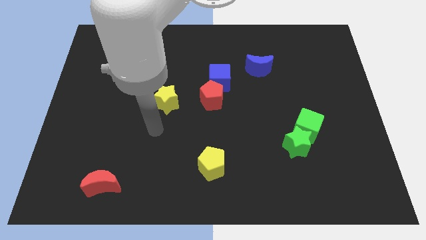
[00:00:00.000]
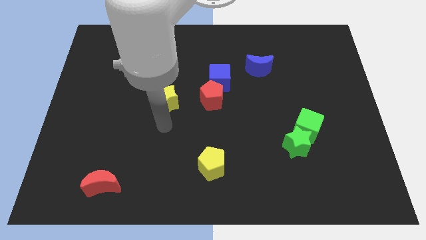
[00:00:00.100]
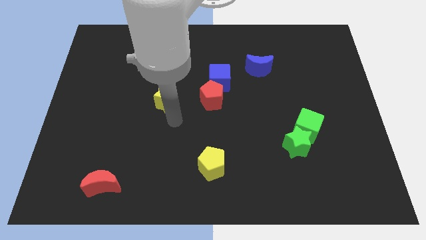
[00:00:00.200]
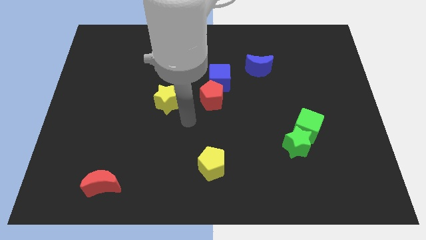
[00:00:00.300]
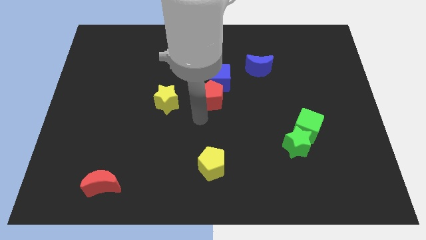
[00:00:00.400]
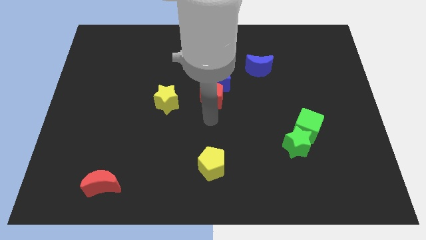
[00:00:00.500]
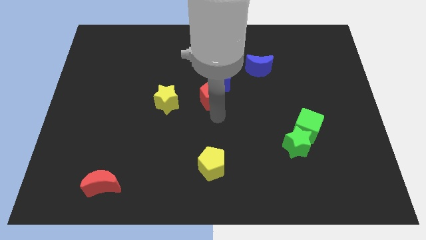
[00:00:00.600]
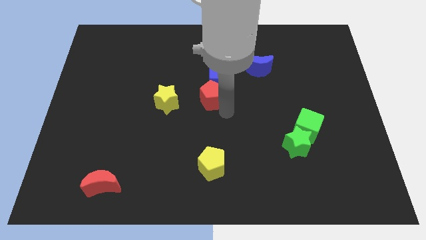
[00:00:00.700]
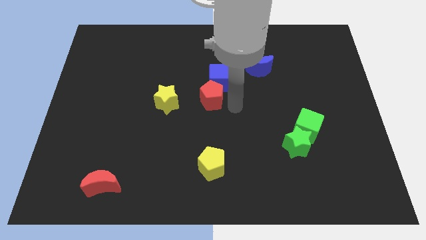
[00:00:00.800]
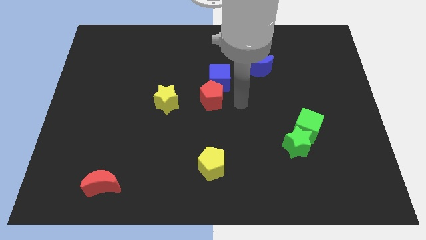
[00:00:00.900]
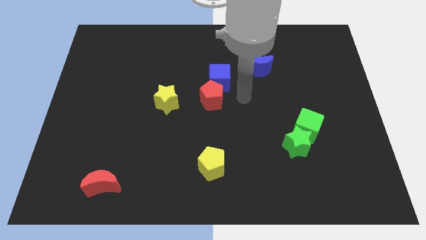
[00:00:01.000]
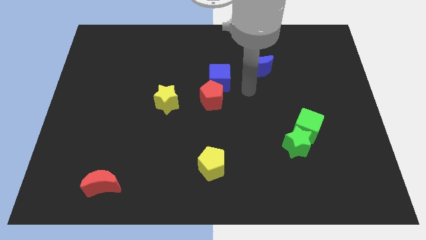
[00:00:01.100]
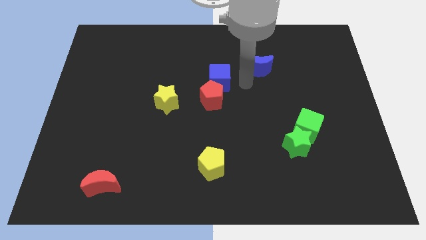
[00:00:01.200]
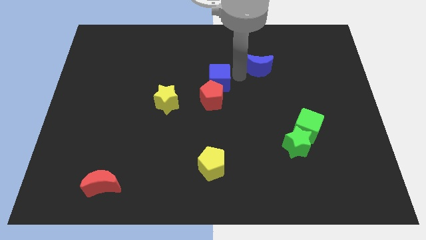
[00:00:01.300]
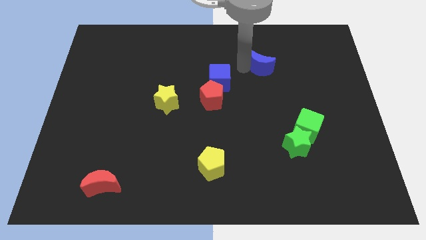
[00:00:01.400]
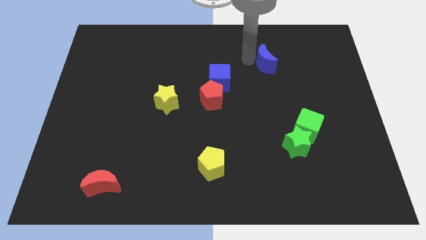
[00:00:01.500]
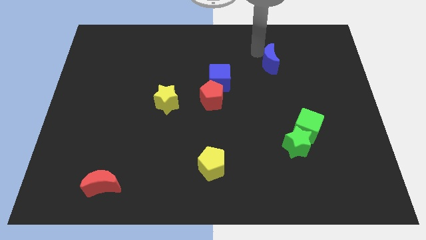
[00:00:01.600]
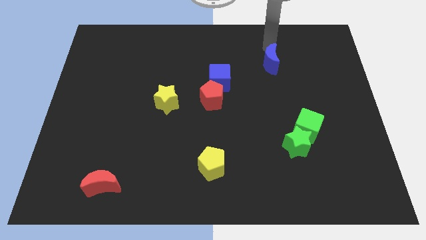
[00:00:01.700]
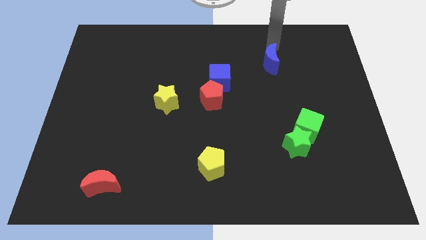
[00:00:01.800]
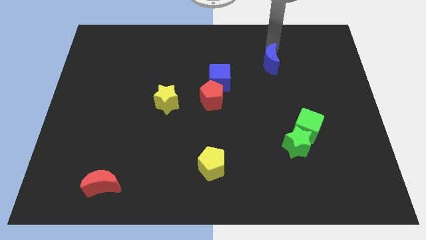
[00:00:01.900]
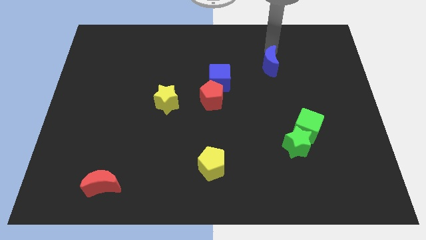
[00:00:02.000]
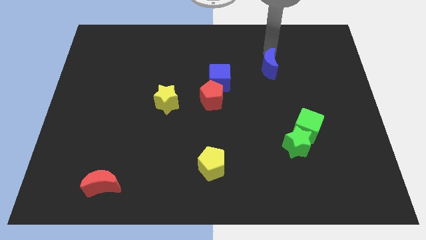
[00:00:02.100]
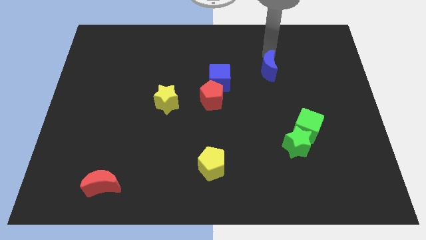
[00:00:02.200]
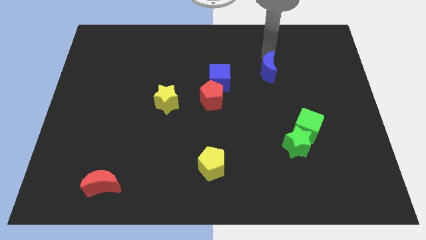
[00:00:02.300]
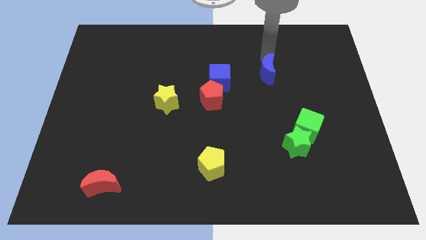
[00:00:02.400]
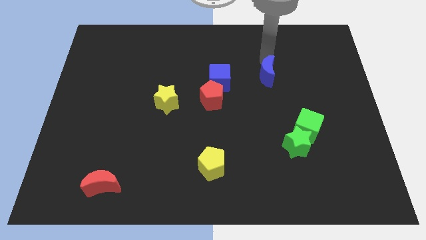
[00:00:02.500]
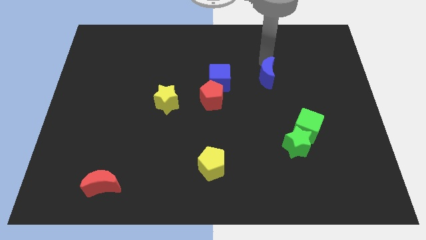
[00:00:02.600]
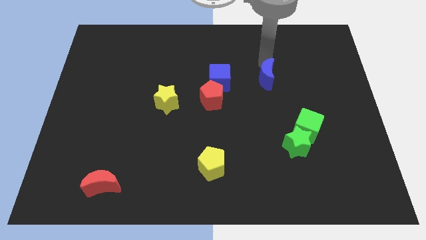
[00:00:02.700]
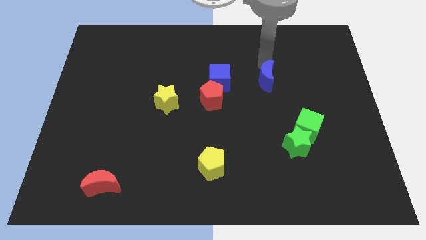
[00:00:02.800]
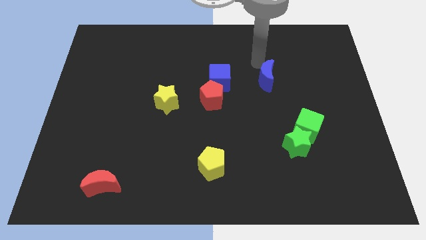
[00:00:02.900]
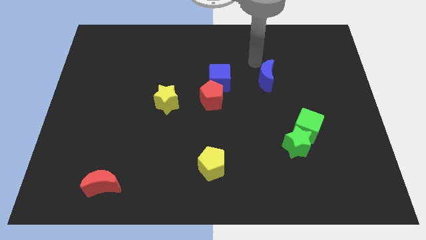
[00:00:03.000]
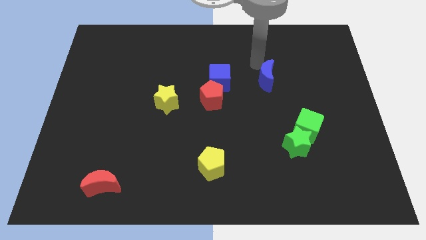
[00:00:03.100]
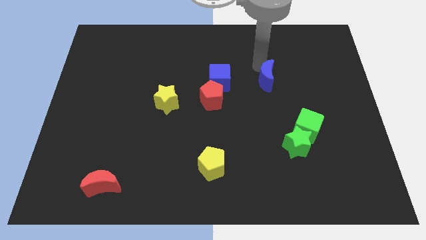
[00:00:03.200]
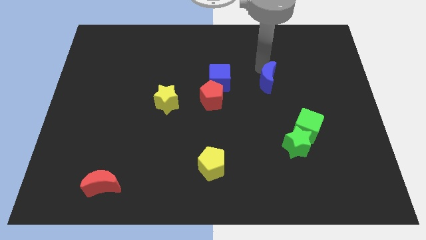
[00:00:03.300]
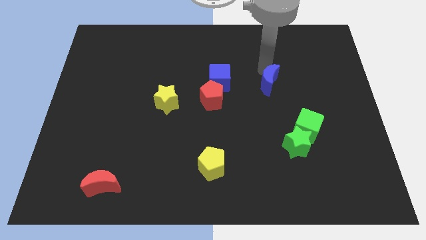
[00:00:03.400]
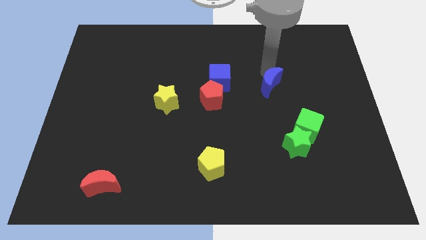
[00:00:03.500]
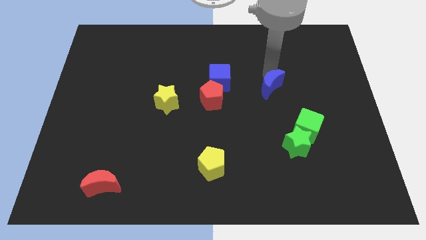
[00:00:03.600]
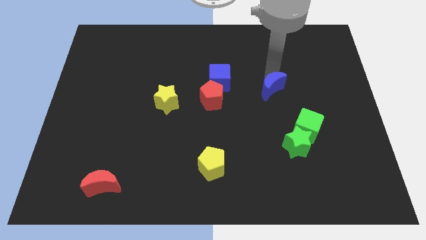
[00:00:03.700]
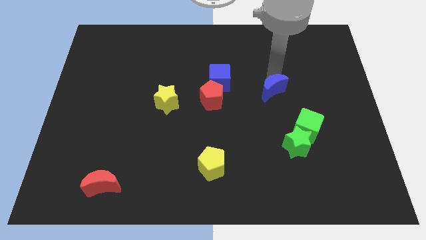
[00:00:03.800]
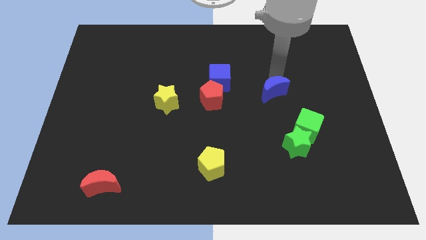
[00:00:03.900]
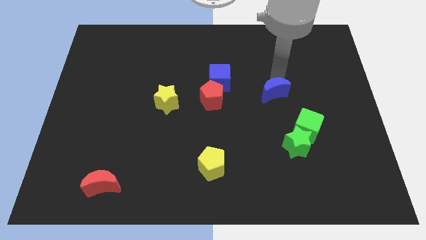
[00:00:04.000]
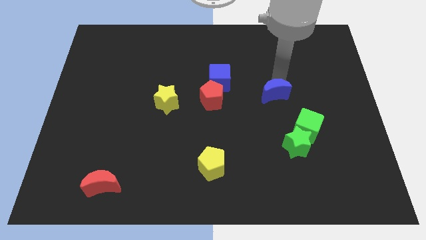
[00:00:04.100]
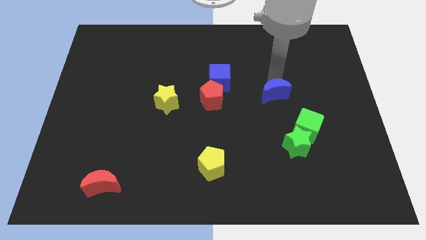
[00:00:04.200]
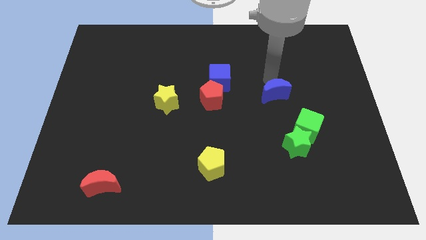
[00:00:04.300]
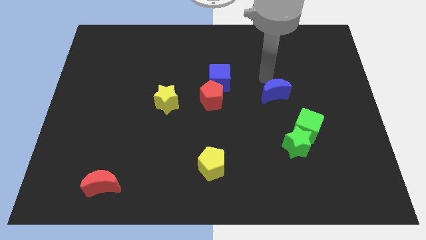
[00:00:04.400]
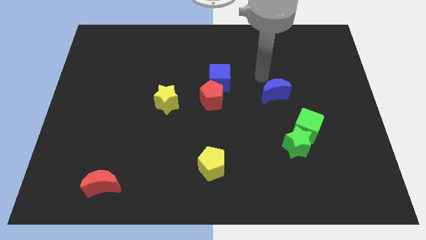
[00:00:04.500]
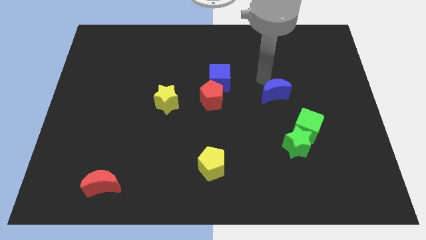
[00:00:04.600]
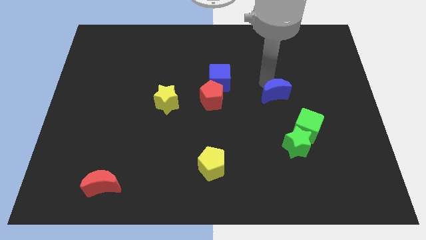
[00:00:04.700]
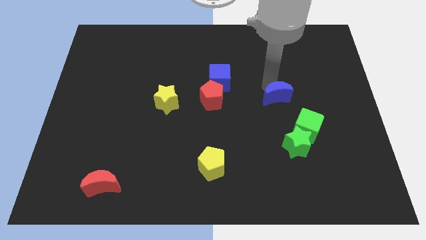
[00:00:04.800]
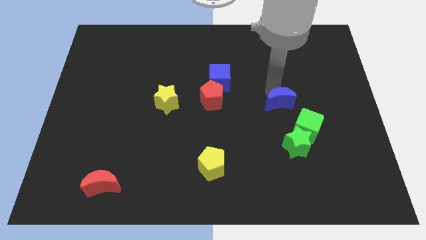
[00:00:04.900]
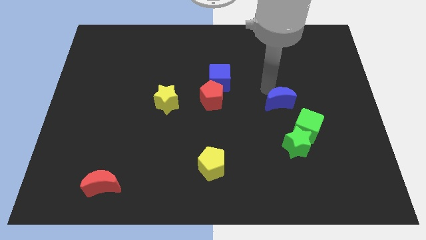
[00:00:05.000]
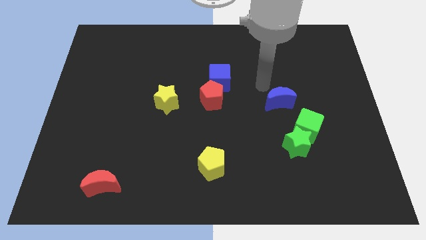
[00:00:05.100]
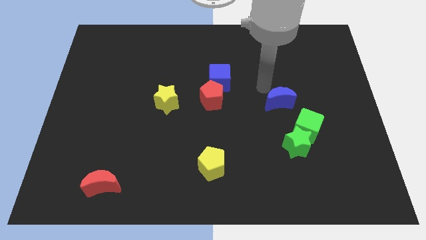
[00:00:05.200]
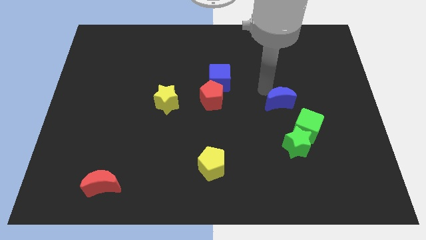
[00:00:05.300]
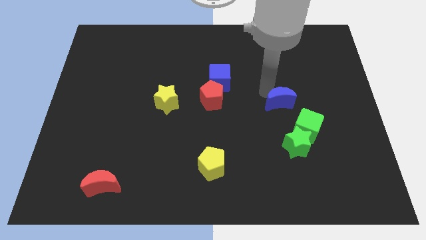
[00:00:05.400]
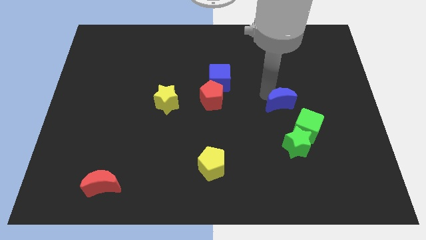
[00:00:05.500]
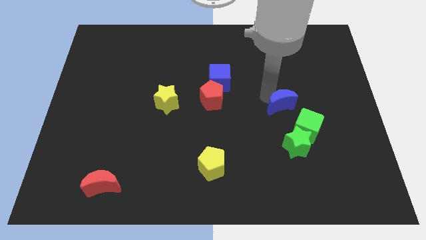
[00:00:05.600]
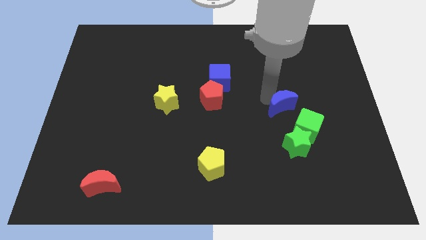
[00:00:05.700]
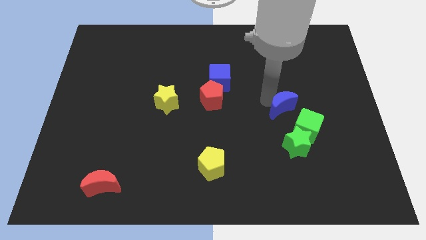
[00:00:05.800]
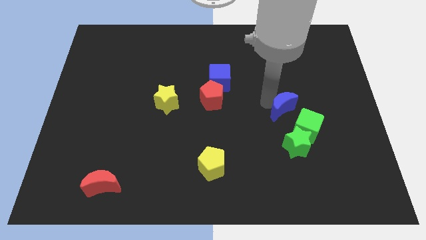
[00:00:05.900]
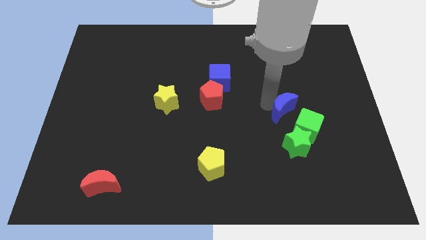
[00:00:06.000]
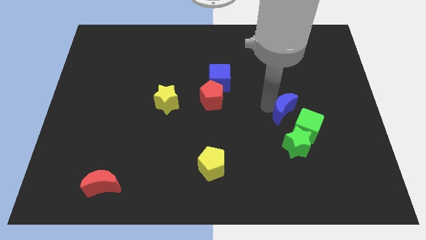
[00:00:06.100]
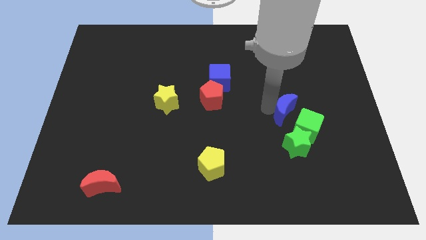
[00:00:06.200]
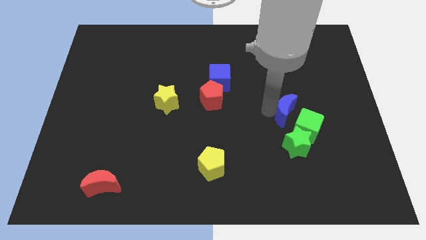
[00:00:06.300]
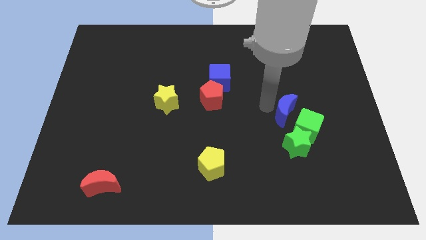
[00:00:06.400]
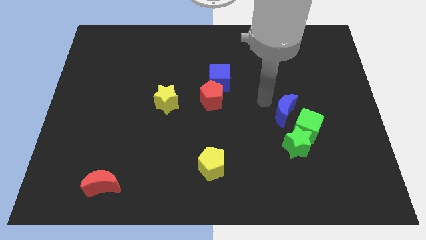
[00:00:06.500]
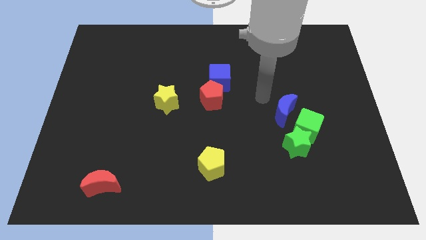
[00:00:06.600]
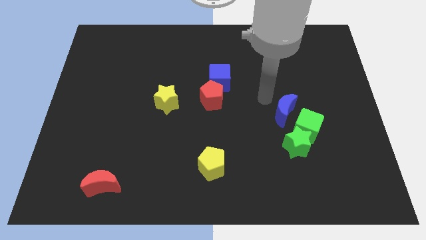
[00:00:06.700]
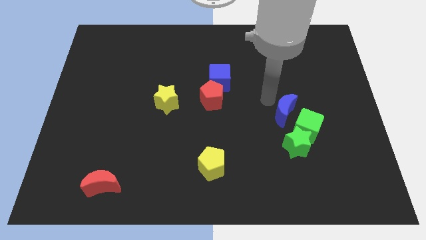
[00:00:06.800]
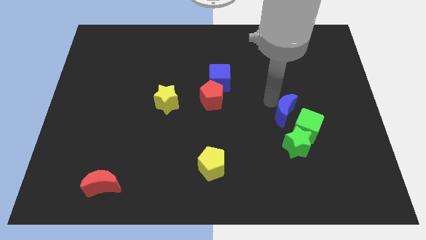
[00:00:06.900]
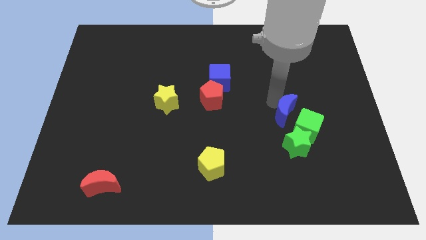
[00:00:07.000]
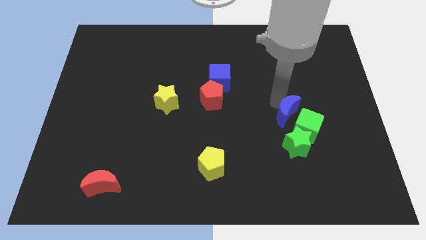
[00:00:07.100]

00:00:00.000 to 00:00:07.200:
push the blue moon towards the green cube

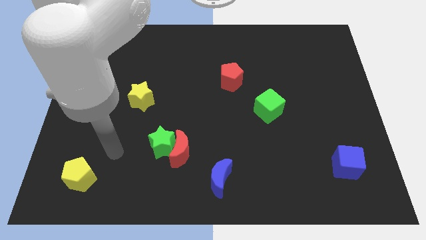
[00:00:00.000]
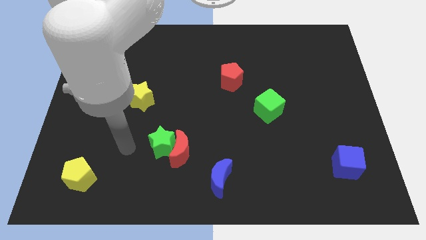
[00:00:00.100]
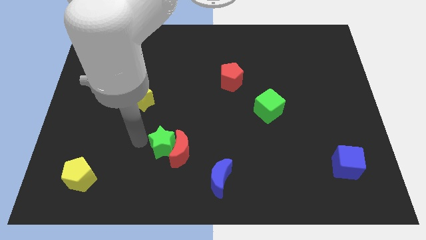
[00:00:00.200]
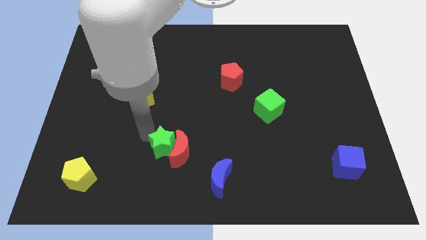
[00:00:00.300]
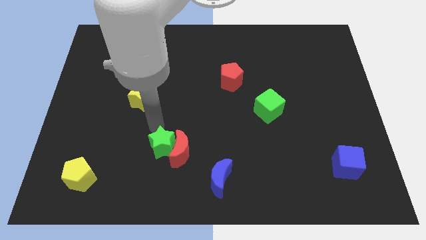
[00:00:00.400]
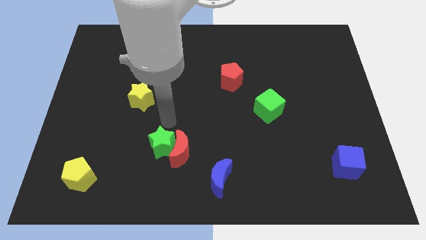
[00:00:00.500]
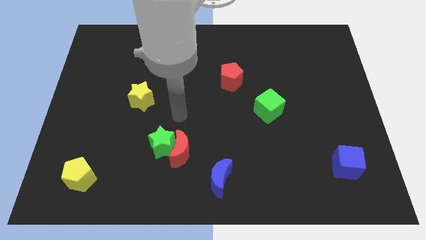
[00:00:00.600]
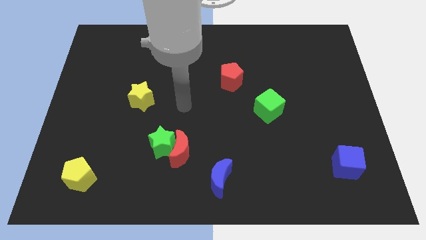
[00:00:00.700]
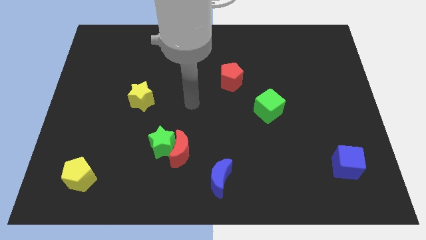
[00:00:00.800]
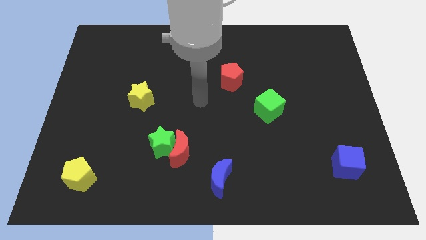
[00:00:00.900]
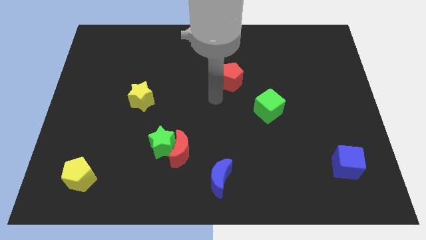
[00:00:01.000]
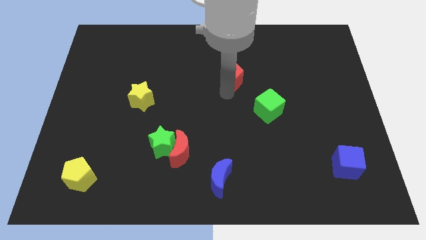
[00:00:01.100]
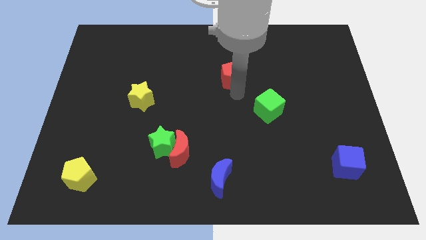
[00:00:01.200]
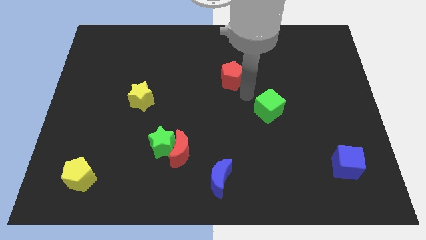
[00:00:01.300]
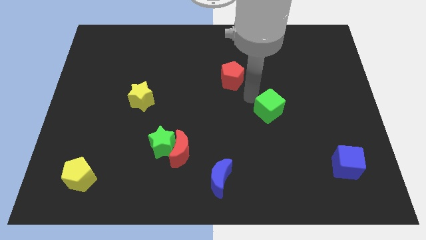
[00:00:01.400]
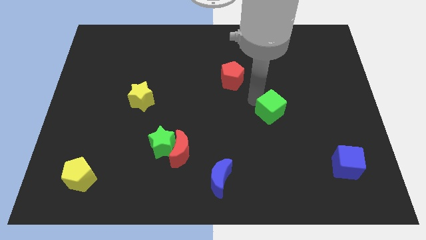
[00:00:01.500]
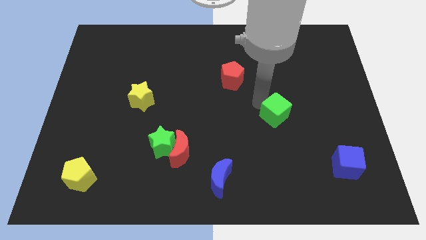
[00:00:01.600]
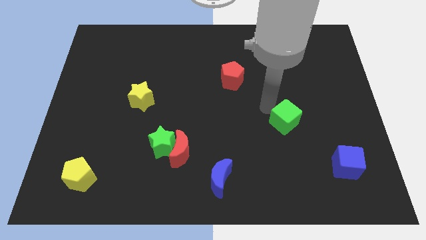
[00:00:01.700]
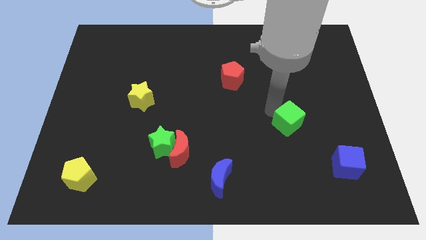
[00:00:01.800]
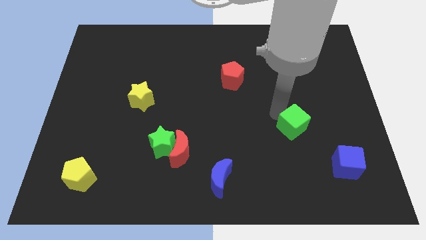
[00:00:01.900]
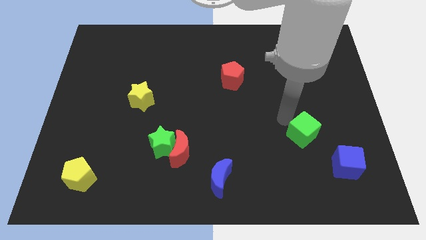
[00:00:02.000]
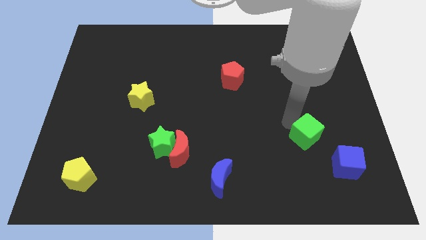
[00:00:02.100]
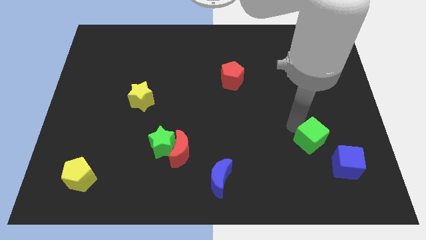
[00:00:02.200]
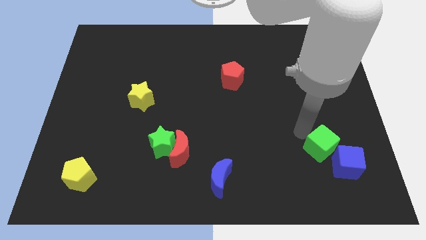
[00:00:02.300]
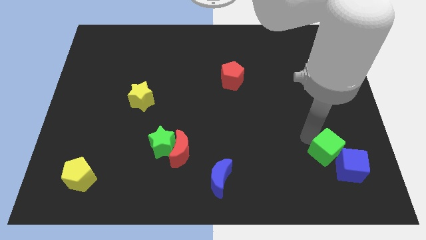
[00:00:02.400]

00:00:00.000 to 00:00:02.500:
push the green cube next to the blue cube
